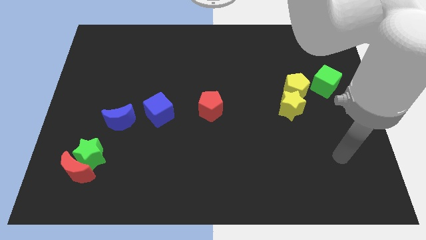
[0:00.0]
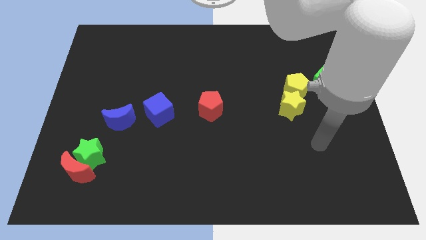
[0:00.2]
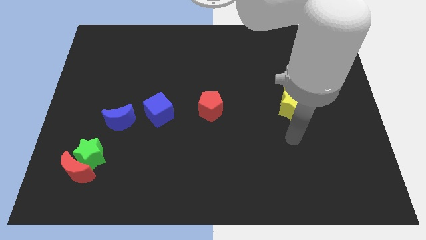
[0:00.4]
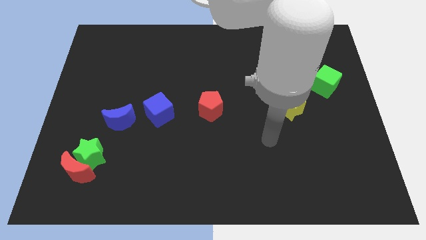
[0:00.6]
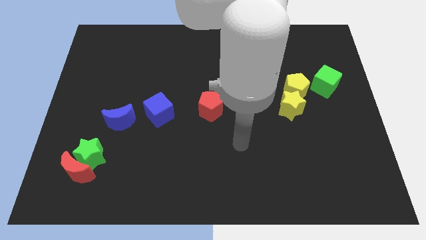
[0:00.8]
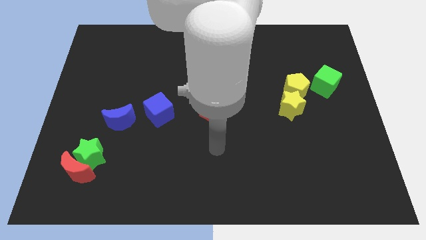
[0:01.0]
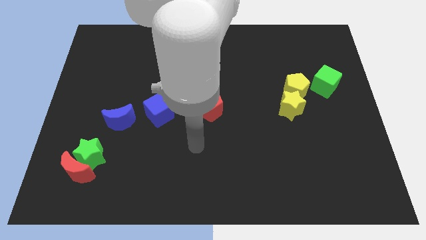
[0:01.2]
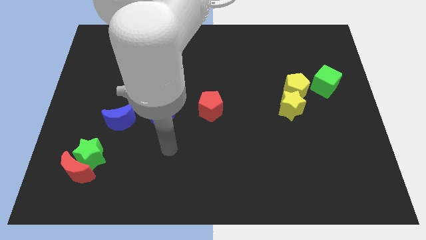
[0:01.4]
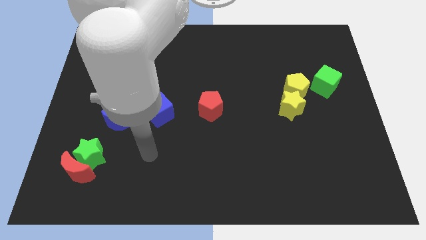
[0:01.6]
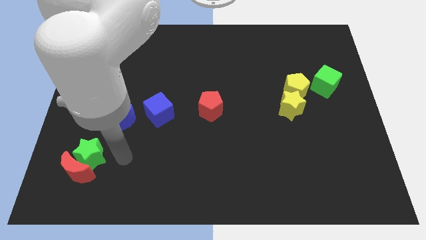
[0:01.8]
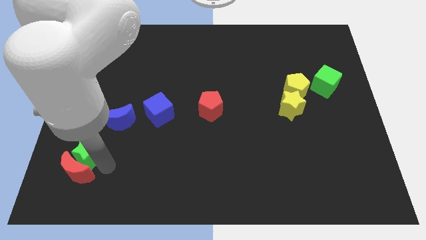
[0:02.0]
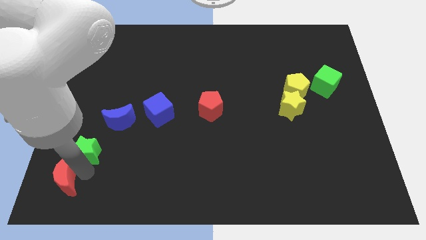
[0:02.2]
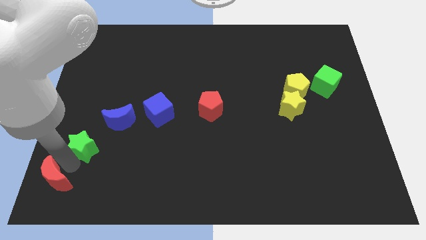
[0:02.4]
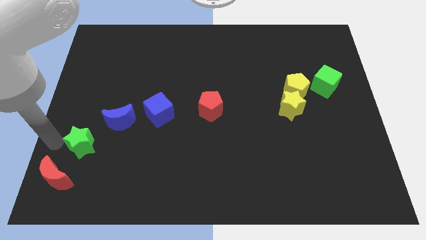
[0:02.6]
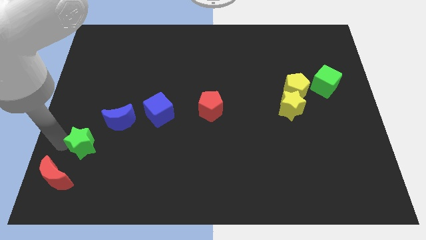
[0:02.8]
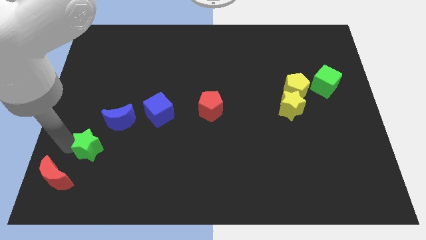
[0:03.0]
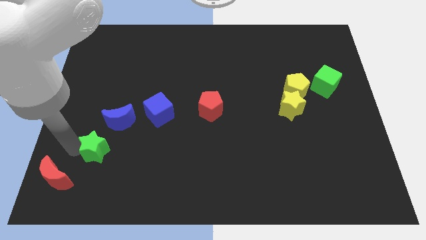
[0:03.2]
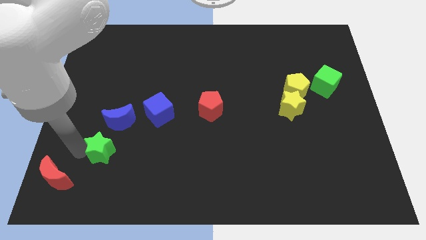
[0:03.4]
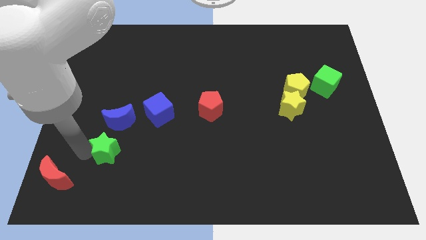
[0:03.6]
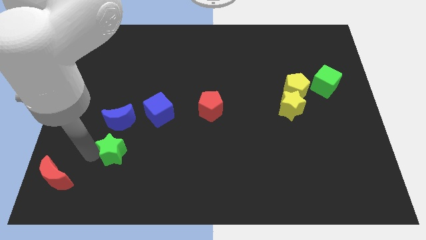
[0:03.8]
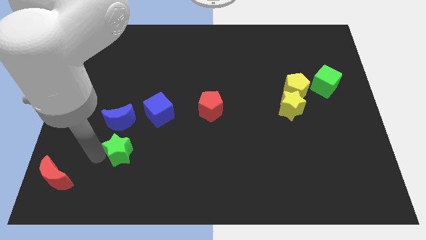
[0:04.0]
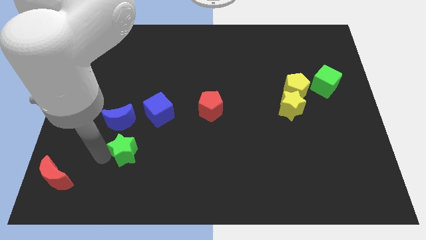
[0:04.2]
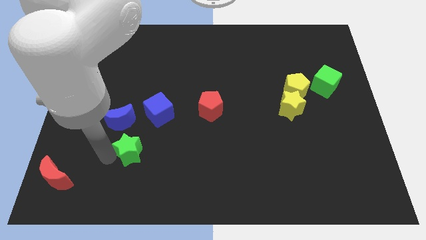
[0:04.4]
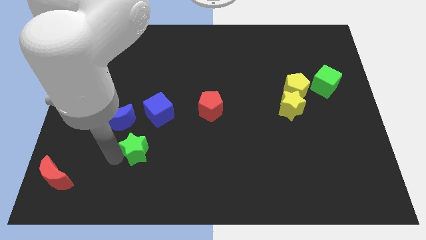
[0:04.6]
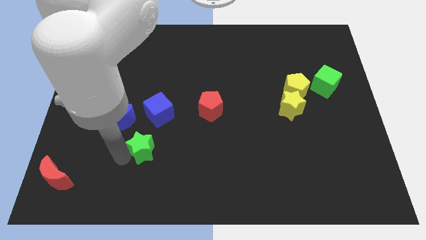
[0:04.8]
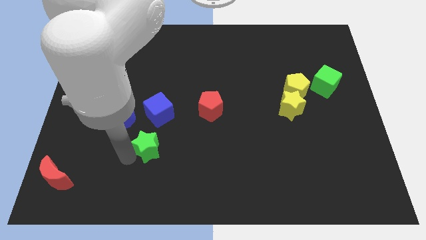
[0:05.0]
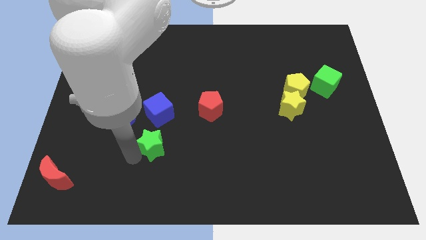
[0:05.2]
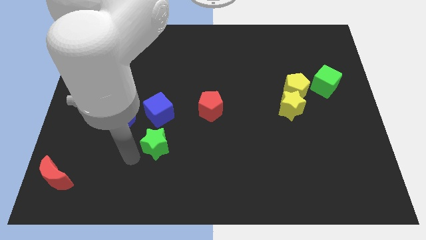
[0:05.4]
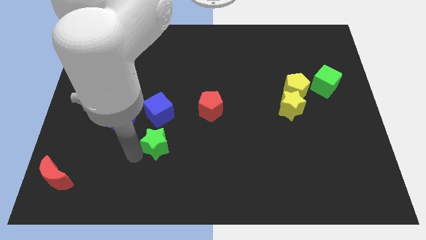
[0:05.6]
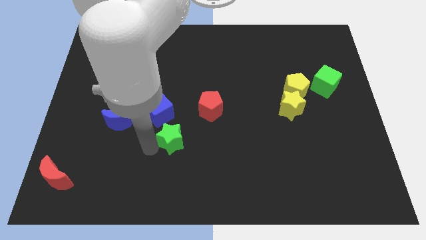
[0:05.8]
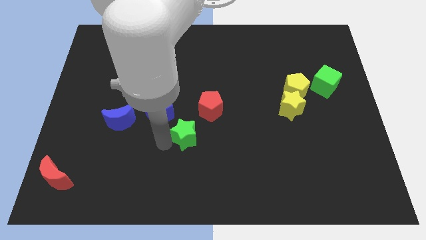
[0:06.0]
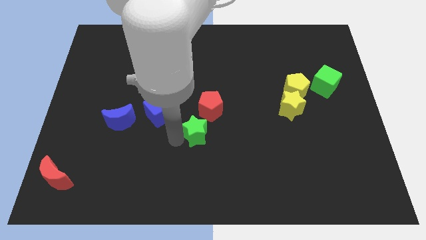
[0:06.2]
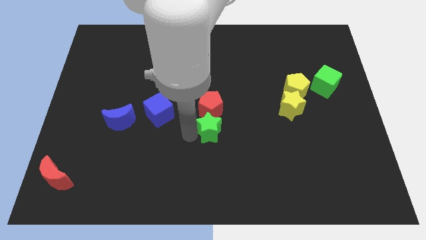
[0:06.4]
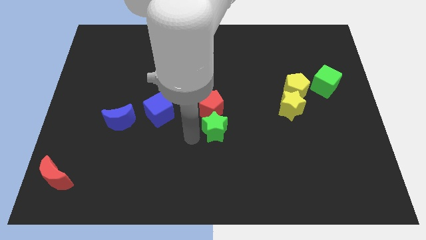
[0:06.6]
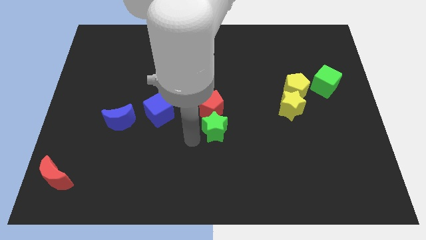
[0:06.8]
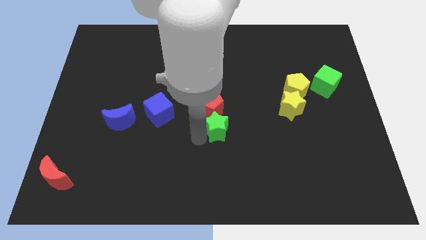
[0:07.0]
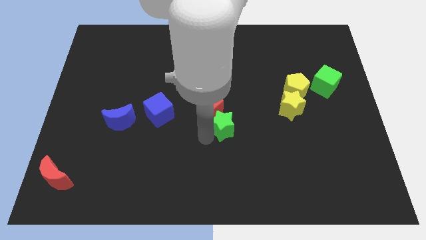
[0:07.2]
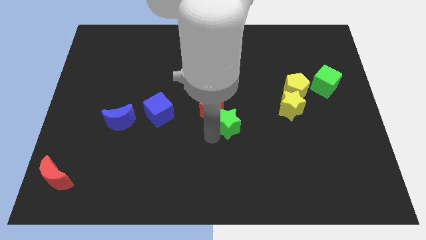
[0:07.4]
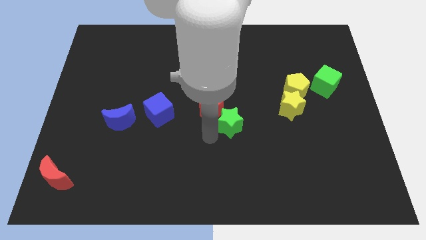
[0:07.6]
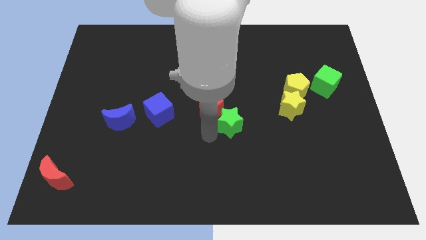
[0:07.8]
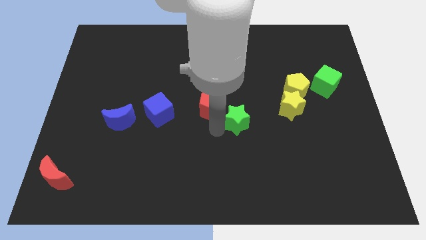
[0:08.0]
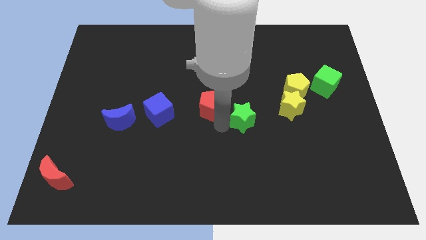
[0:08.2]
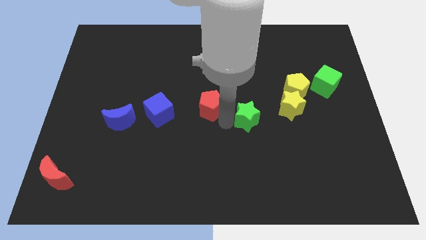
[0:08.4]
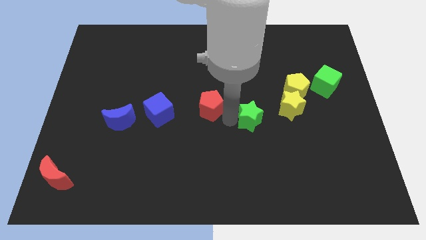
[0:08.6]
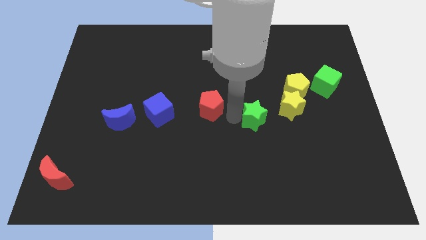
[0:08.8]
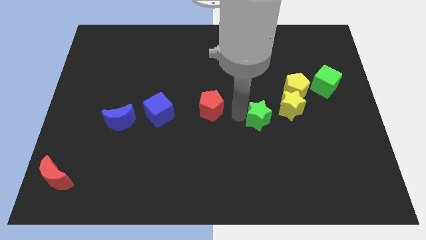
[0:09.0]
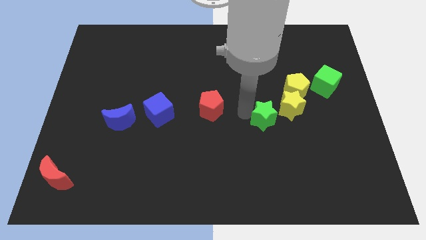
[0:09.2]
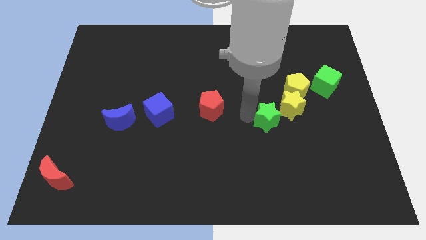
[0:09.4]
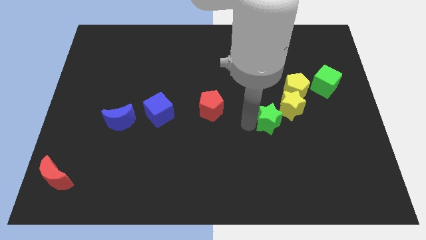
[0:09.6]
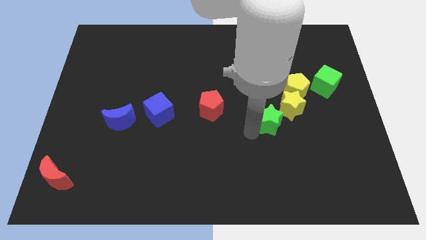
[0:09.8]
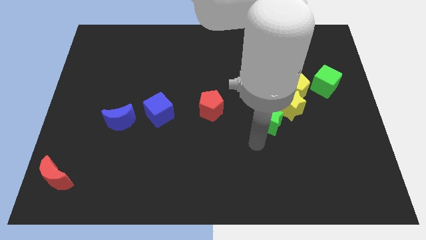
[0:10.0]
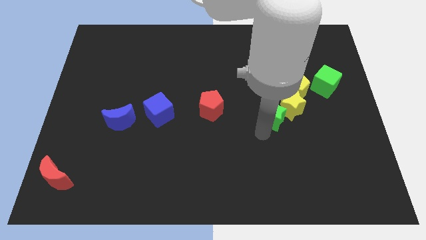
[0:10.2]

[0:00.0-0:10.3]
slide the green star towards the yellow star

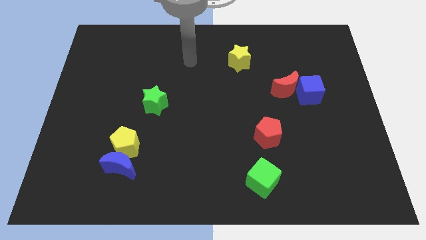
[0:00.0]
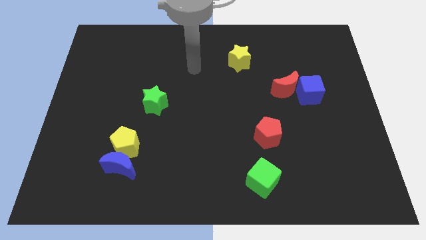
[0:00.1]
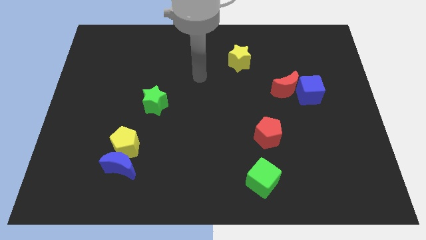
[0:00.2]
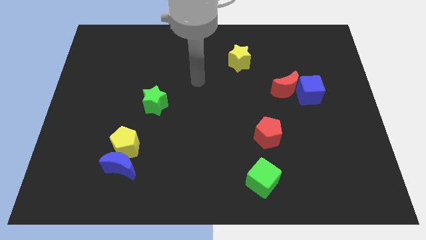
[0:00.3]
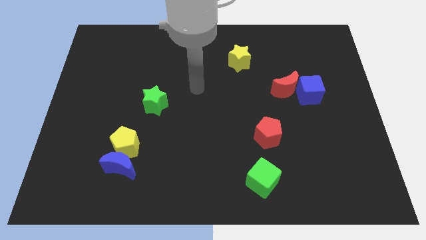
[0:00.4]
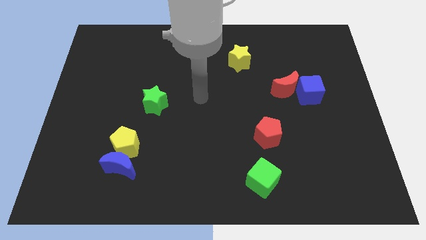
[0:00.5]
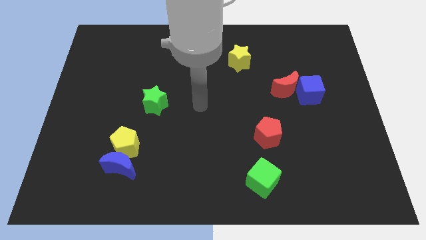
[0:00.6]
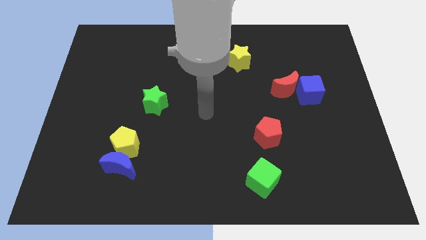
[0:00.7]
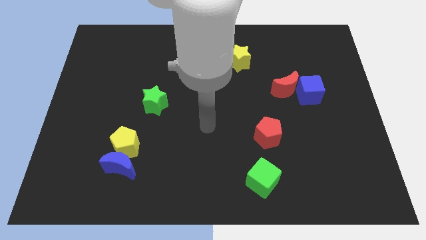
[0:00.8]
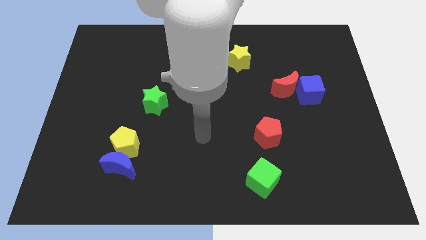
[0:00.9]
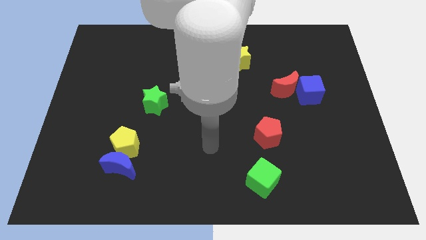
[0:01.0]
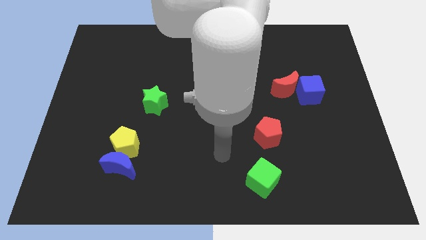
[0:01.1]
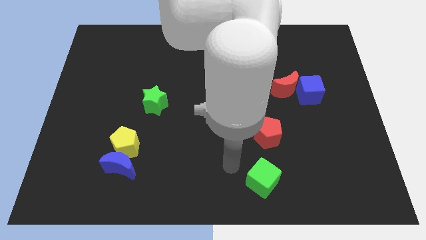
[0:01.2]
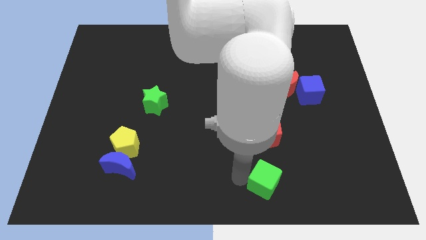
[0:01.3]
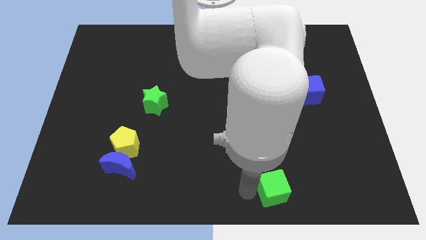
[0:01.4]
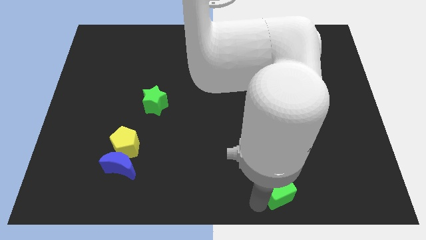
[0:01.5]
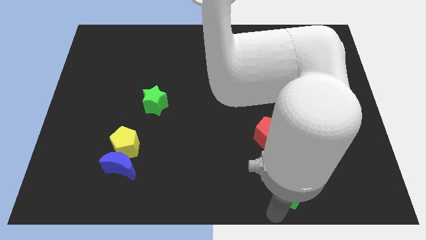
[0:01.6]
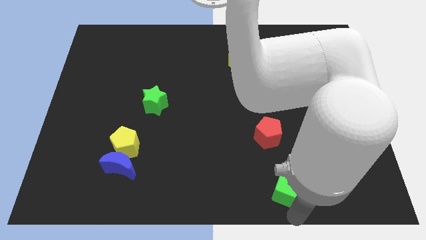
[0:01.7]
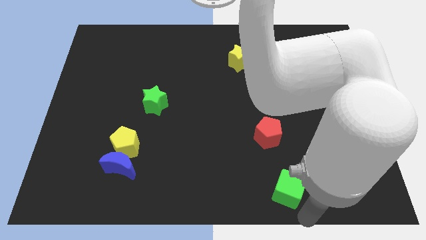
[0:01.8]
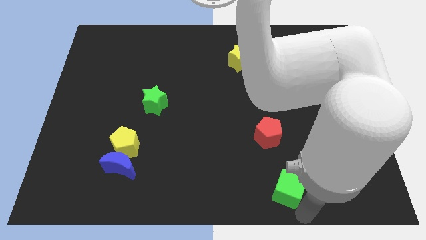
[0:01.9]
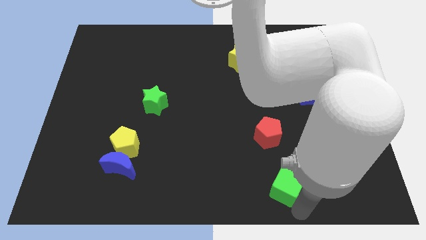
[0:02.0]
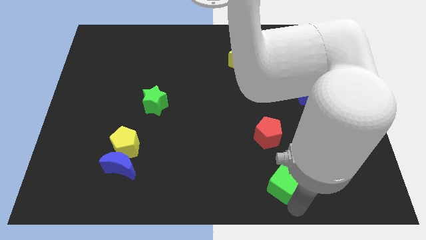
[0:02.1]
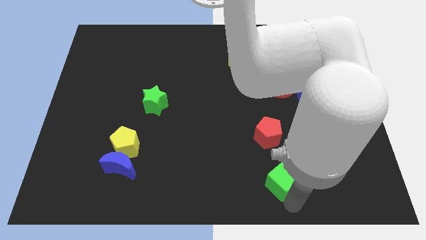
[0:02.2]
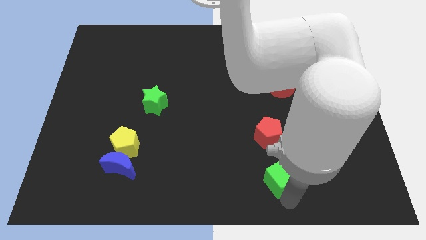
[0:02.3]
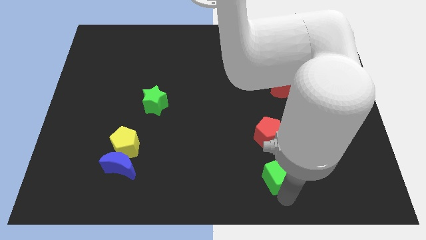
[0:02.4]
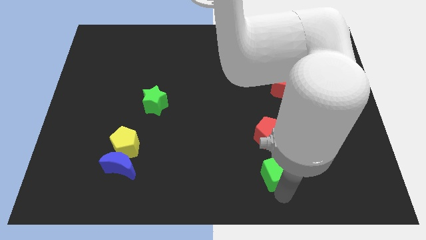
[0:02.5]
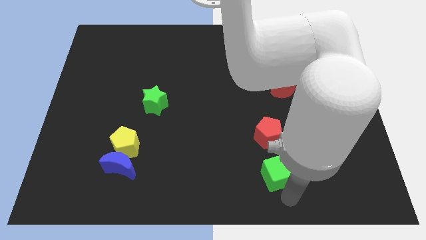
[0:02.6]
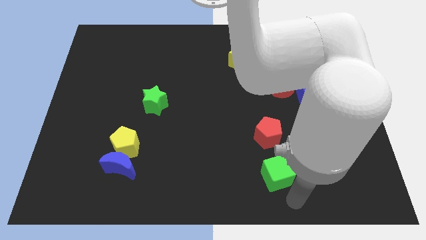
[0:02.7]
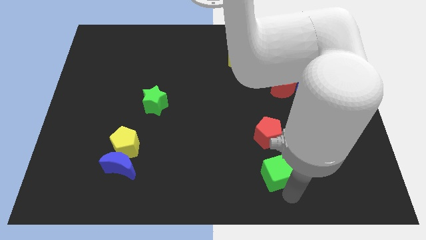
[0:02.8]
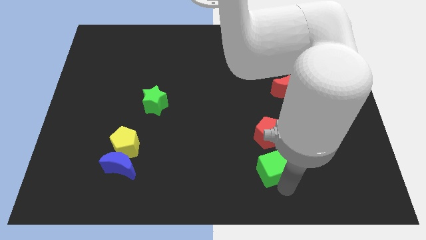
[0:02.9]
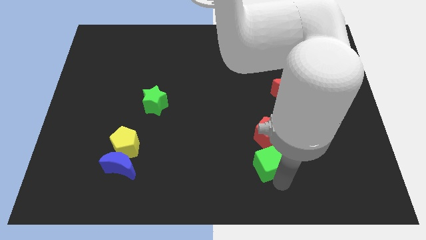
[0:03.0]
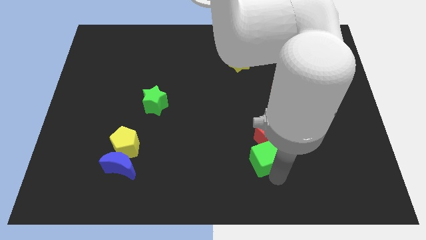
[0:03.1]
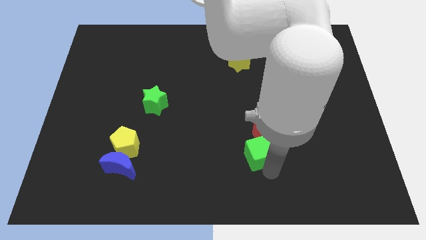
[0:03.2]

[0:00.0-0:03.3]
move the green cube close to the red pentagon
